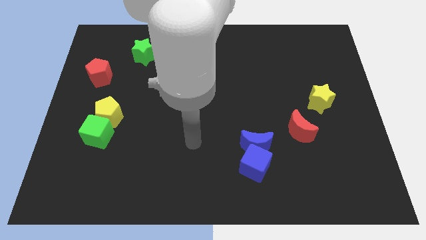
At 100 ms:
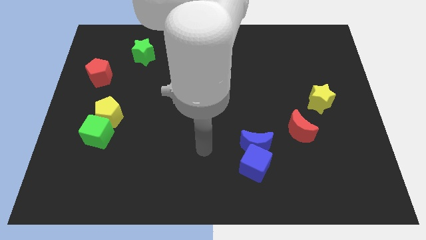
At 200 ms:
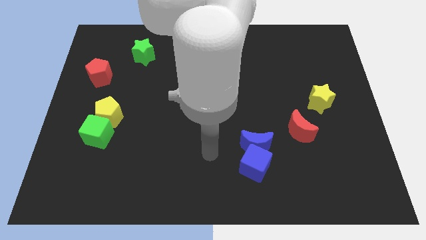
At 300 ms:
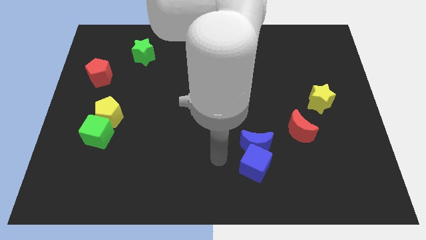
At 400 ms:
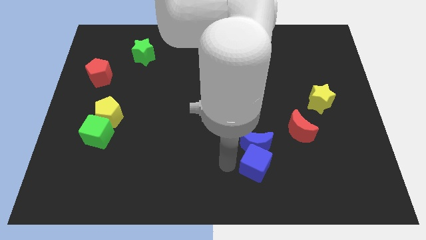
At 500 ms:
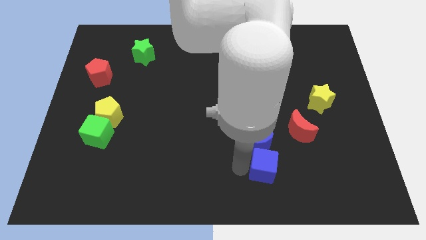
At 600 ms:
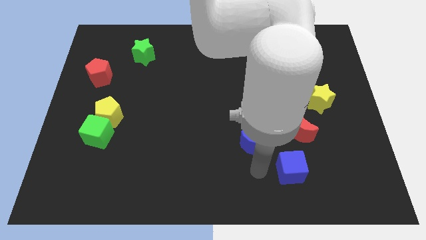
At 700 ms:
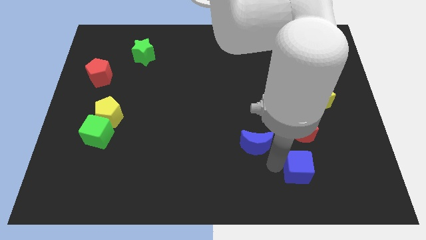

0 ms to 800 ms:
move the blue moon away from the blue cube

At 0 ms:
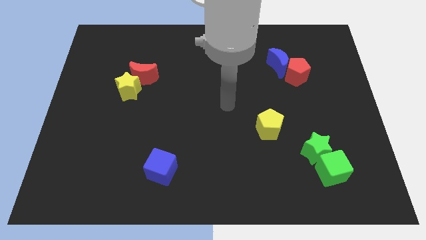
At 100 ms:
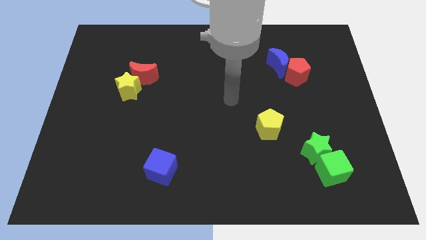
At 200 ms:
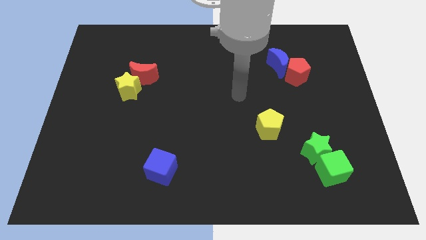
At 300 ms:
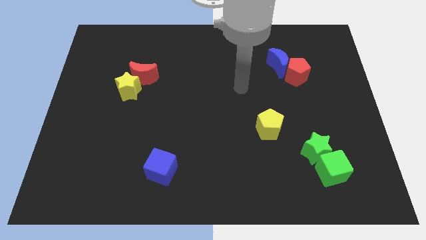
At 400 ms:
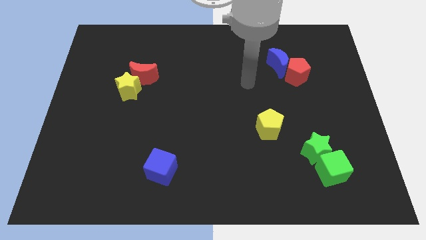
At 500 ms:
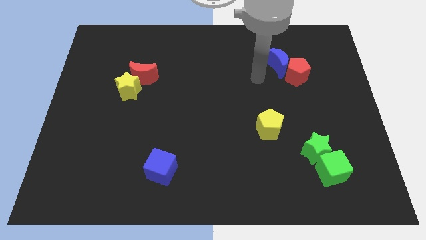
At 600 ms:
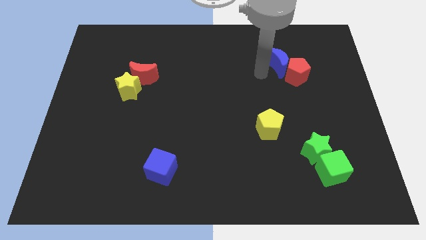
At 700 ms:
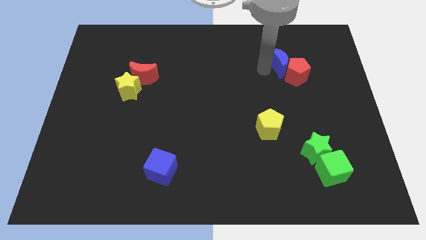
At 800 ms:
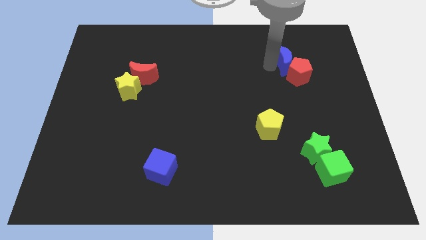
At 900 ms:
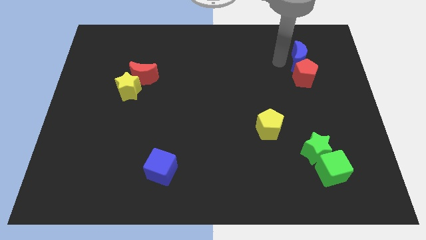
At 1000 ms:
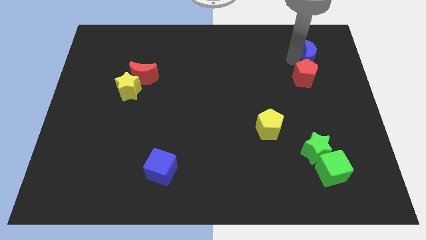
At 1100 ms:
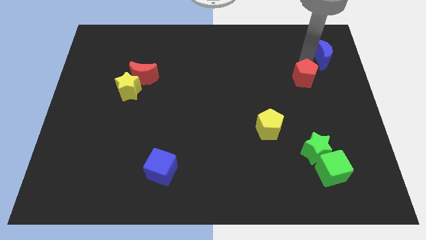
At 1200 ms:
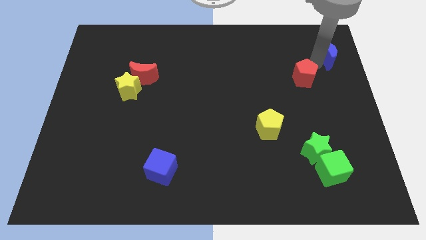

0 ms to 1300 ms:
move the red pentagon away from the blue moon

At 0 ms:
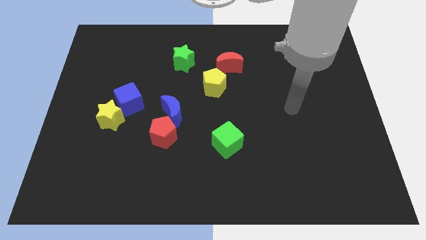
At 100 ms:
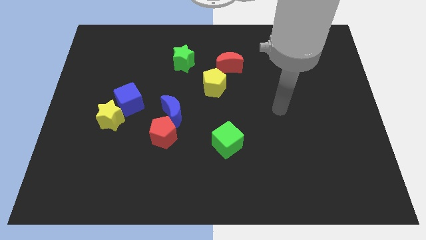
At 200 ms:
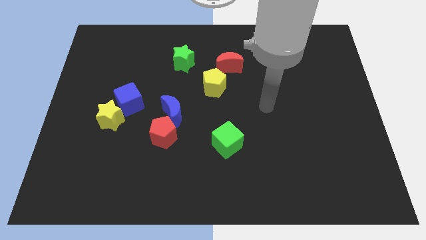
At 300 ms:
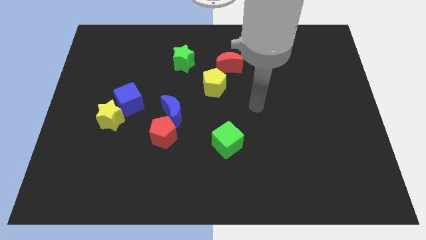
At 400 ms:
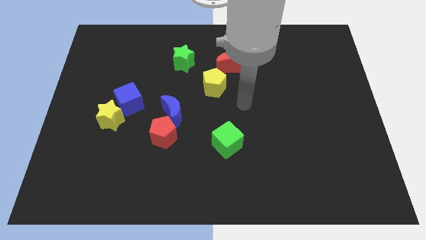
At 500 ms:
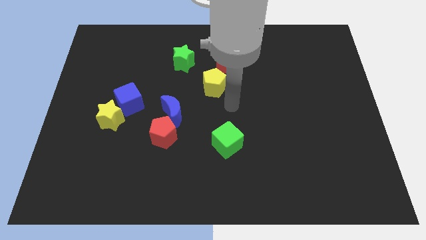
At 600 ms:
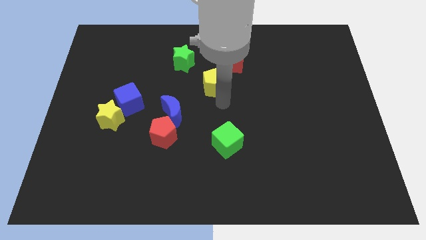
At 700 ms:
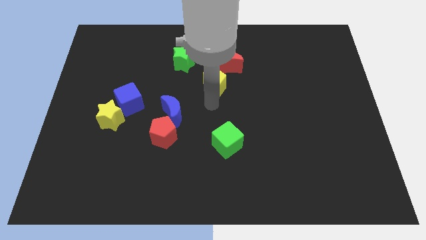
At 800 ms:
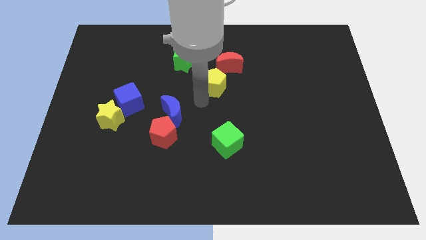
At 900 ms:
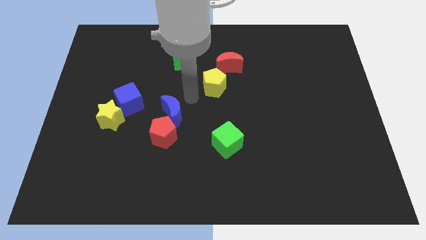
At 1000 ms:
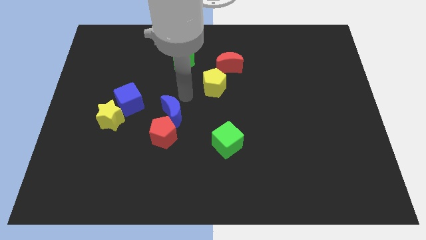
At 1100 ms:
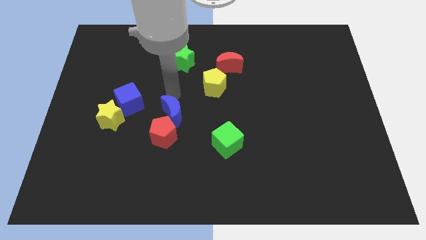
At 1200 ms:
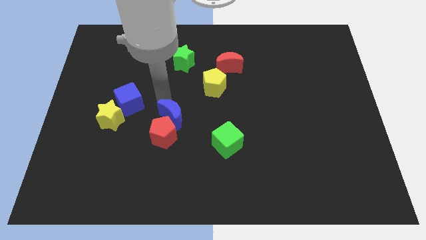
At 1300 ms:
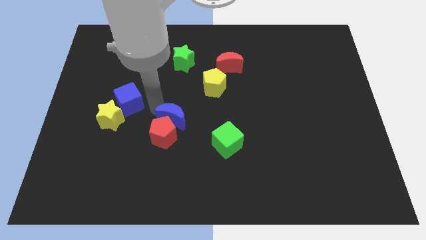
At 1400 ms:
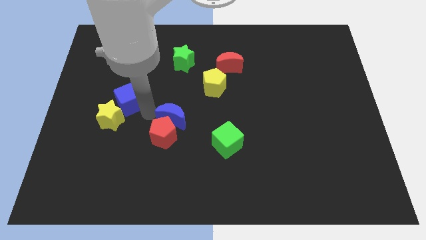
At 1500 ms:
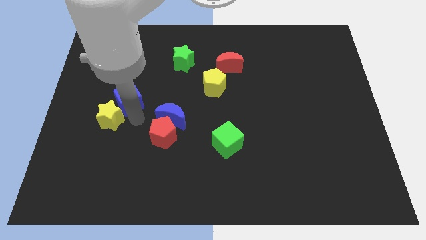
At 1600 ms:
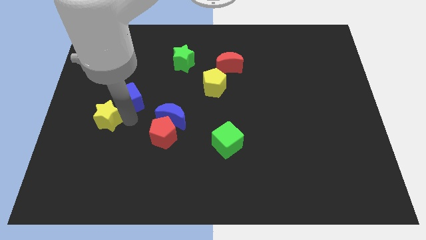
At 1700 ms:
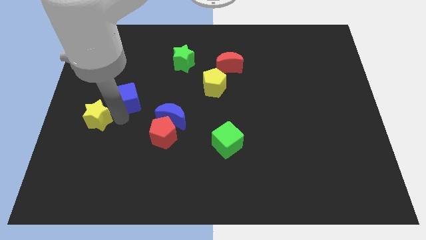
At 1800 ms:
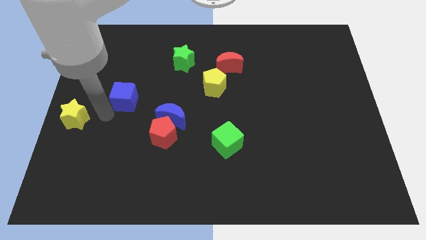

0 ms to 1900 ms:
separate the blue cube from the yellow star

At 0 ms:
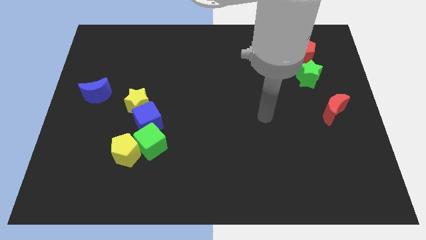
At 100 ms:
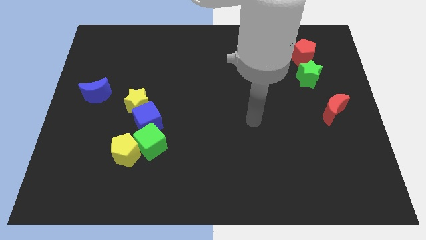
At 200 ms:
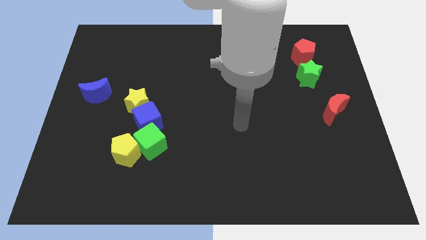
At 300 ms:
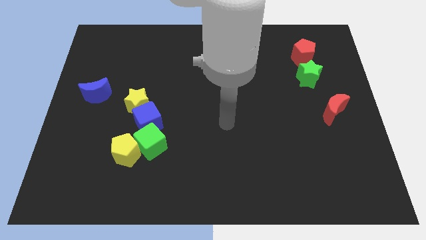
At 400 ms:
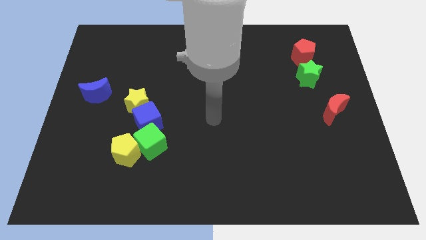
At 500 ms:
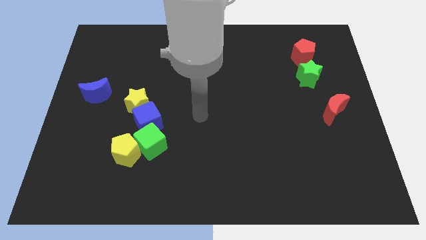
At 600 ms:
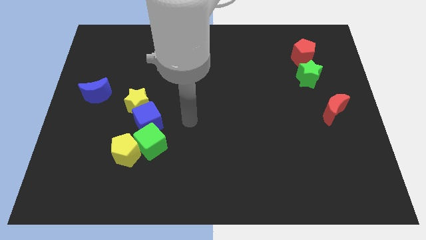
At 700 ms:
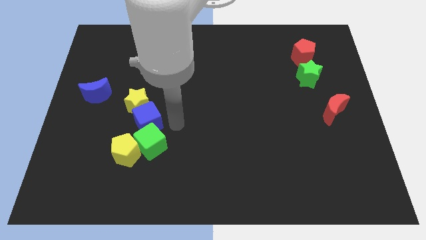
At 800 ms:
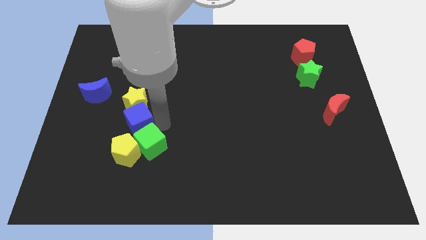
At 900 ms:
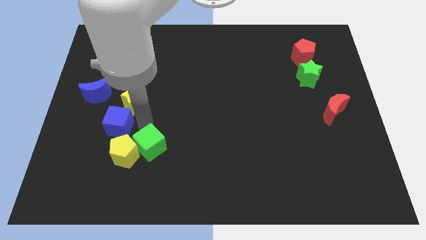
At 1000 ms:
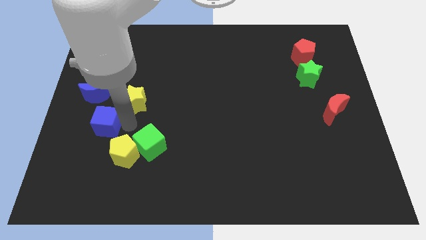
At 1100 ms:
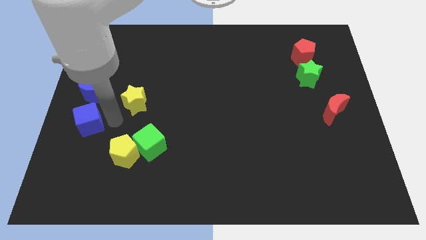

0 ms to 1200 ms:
move the yellow star away from the blue cube

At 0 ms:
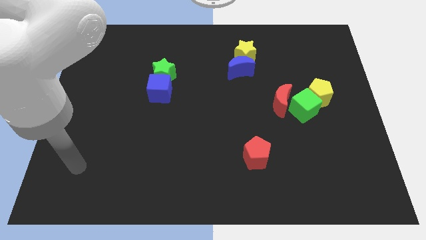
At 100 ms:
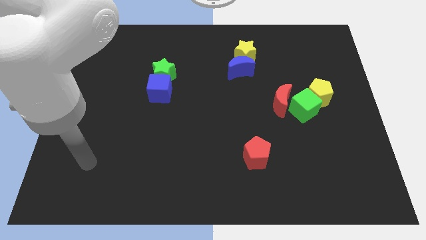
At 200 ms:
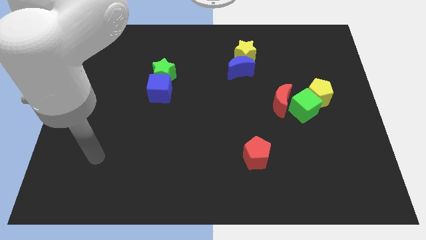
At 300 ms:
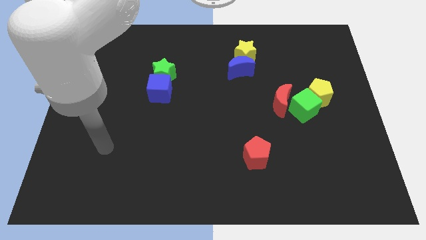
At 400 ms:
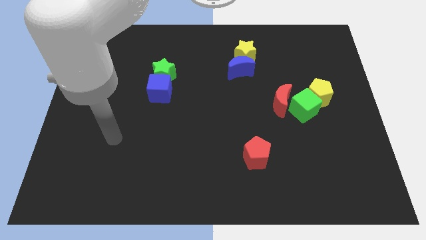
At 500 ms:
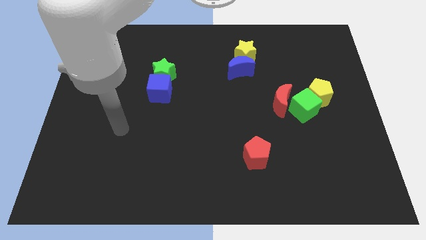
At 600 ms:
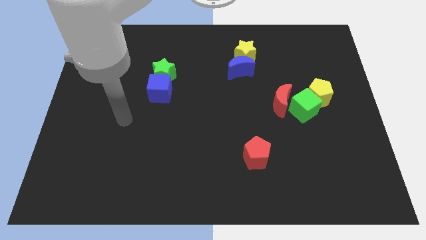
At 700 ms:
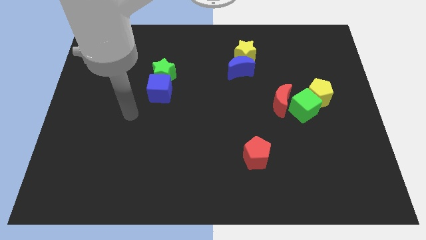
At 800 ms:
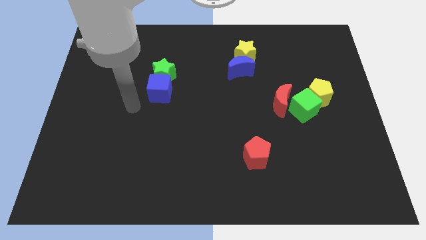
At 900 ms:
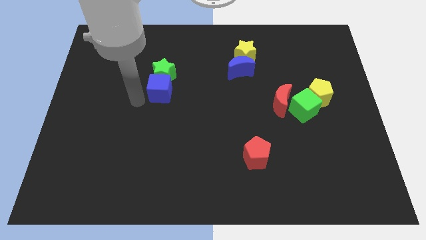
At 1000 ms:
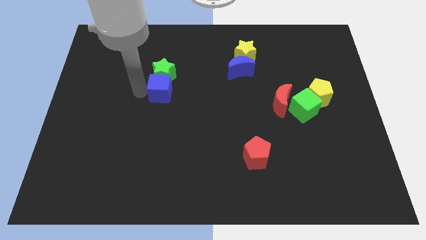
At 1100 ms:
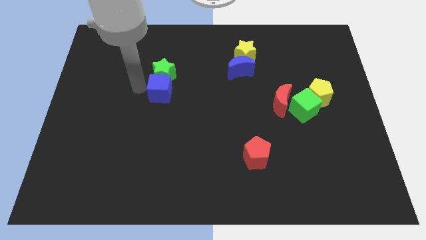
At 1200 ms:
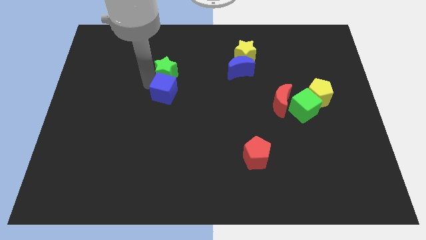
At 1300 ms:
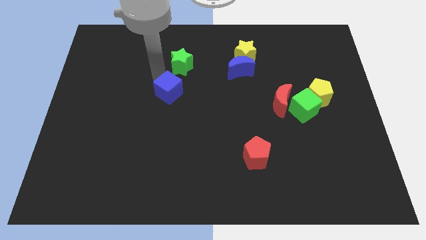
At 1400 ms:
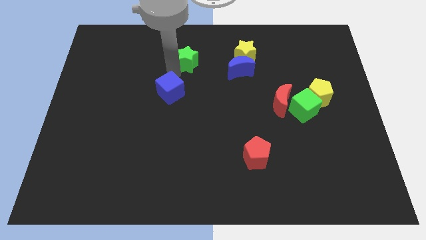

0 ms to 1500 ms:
move the blue cube away from the green star

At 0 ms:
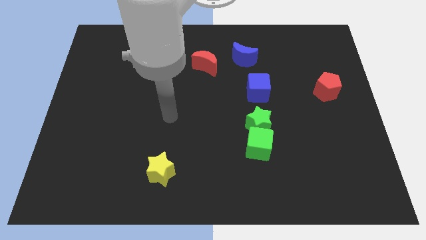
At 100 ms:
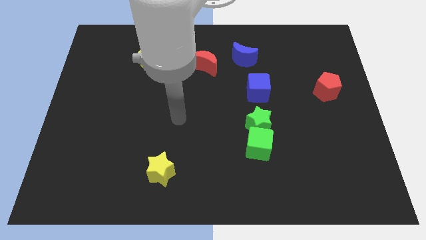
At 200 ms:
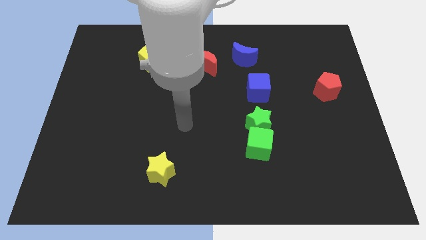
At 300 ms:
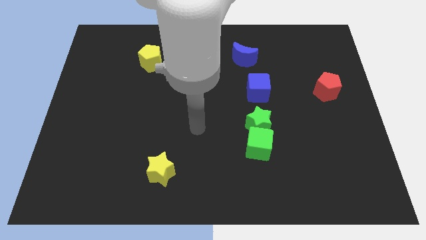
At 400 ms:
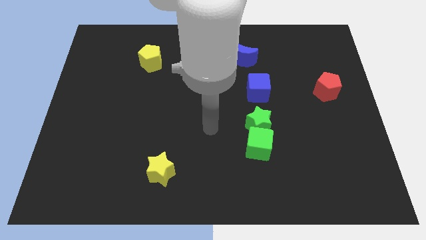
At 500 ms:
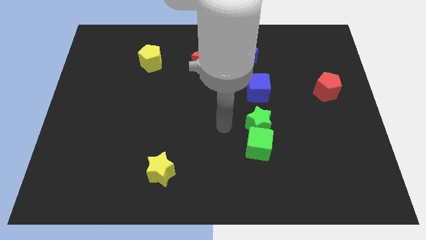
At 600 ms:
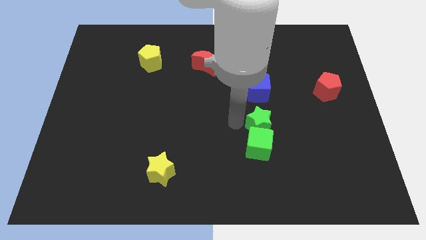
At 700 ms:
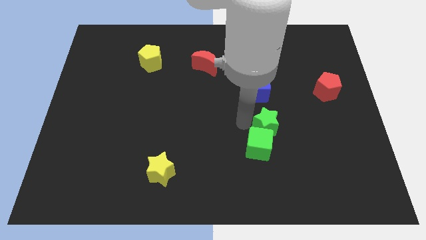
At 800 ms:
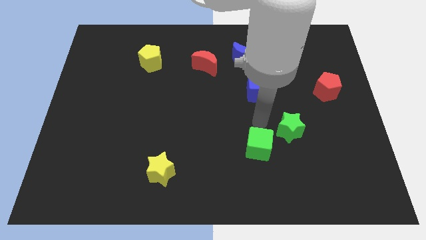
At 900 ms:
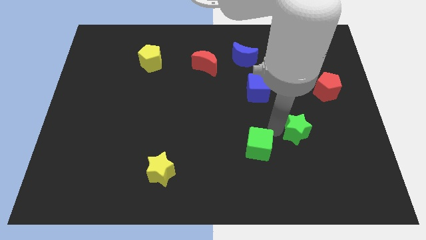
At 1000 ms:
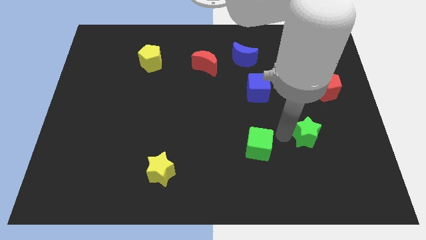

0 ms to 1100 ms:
separate the green cube from the green star

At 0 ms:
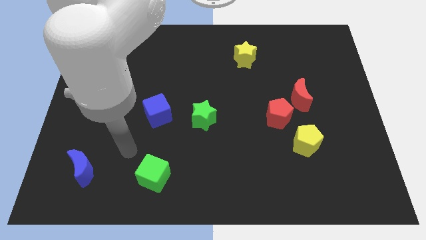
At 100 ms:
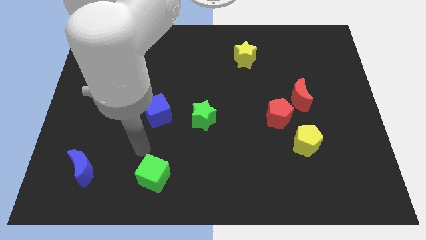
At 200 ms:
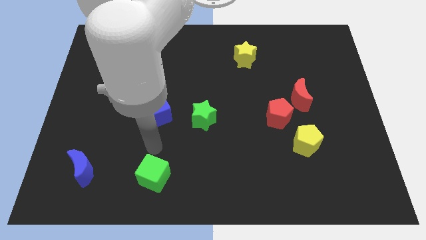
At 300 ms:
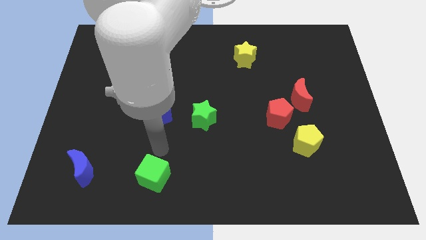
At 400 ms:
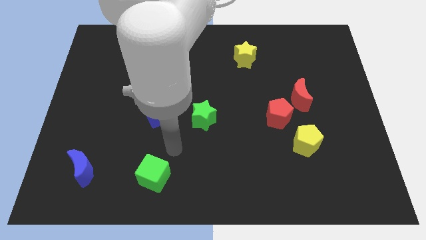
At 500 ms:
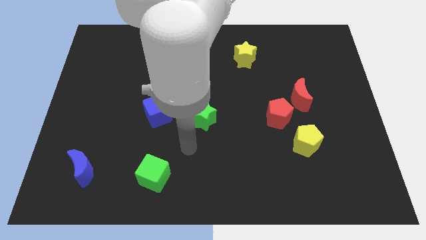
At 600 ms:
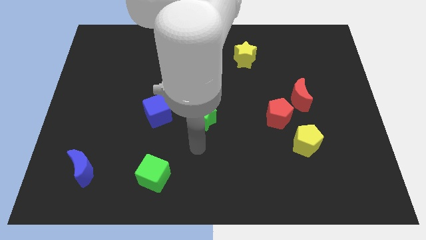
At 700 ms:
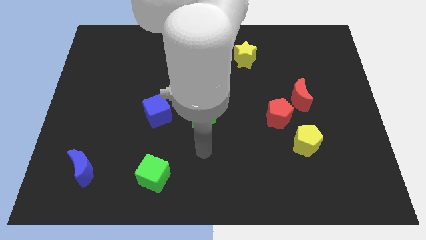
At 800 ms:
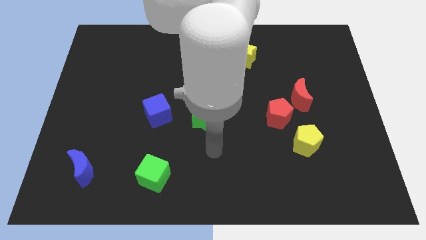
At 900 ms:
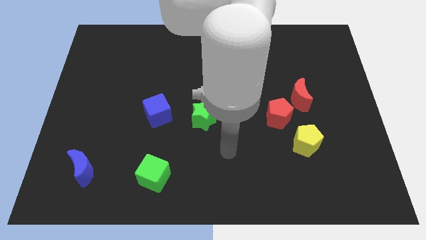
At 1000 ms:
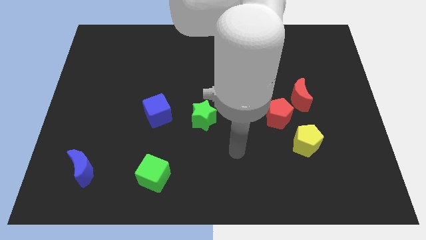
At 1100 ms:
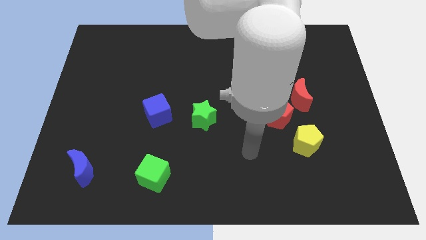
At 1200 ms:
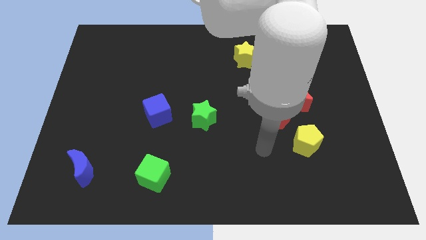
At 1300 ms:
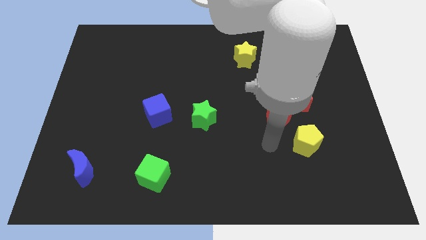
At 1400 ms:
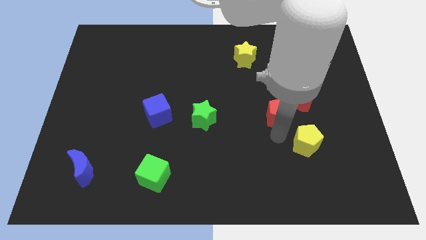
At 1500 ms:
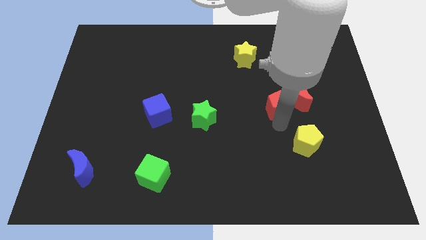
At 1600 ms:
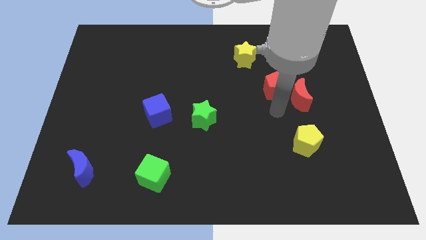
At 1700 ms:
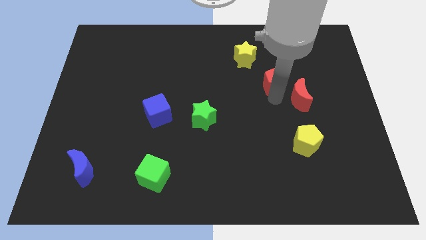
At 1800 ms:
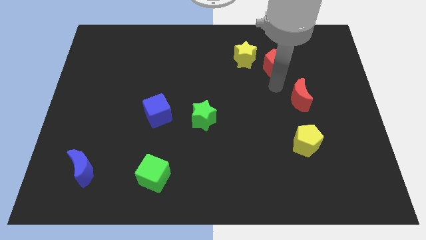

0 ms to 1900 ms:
separate the red moon from the red pentagon
